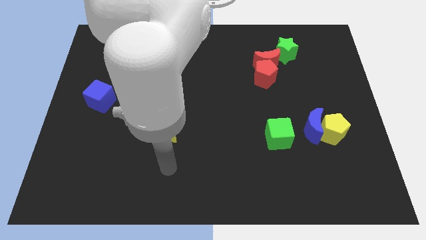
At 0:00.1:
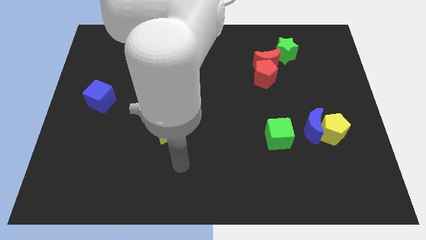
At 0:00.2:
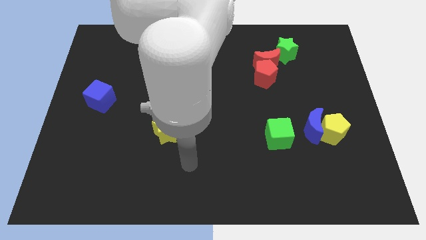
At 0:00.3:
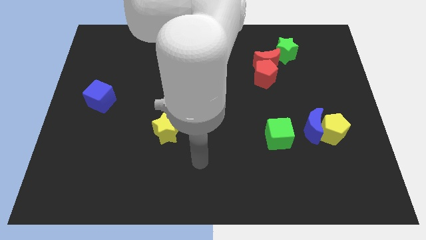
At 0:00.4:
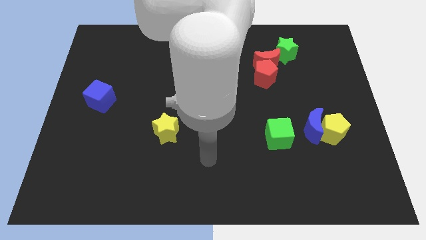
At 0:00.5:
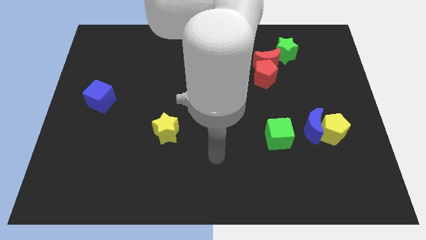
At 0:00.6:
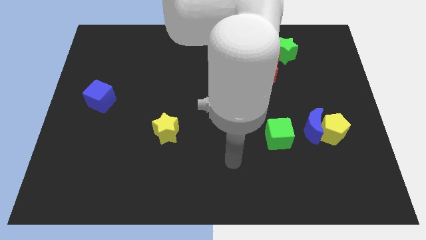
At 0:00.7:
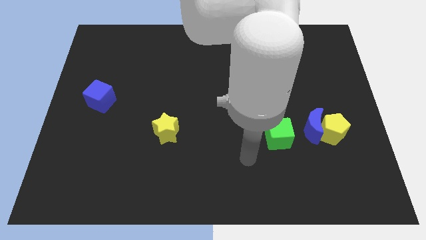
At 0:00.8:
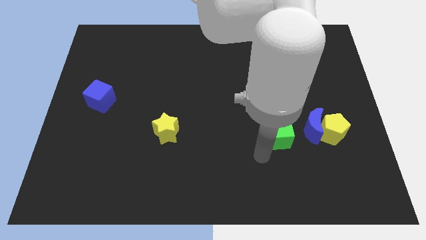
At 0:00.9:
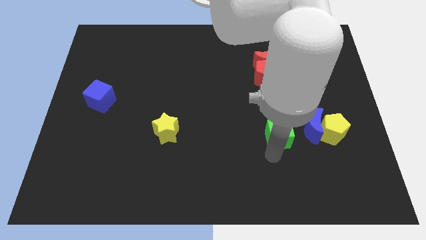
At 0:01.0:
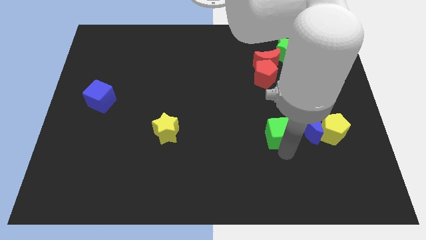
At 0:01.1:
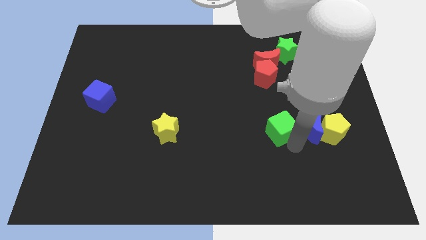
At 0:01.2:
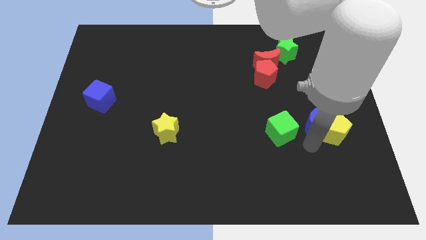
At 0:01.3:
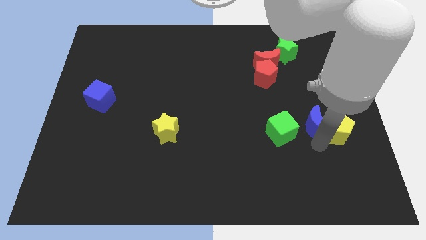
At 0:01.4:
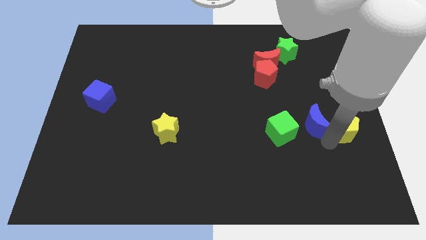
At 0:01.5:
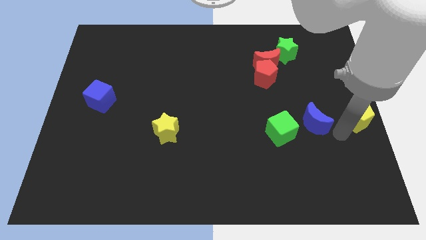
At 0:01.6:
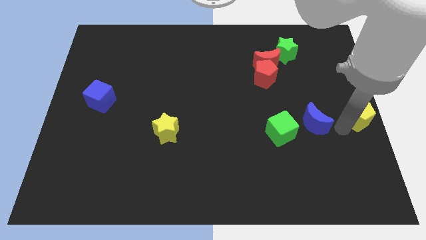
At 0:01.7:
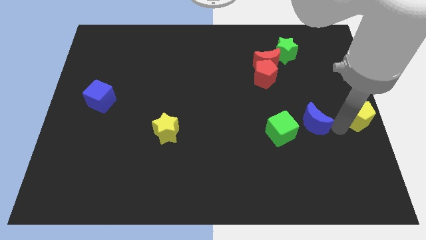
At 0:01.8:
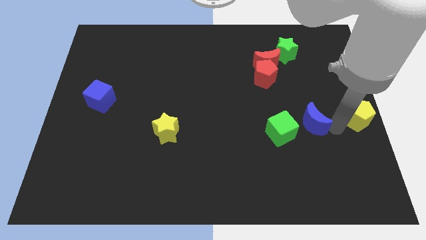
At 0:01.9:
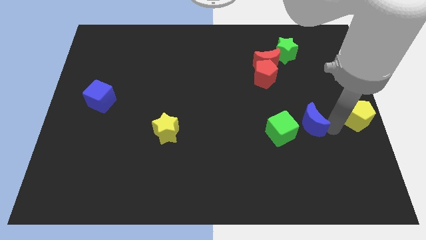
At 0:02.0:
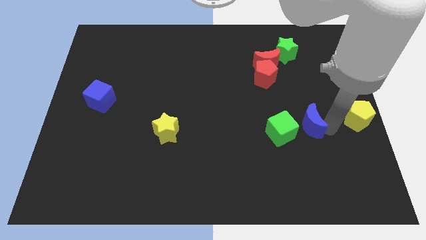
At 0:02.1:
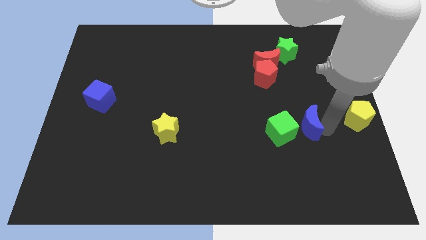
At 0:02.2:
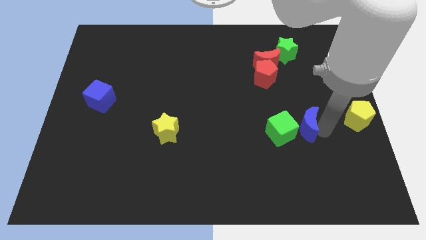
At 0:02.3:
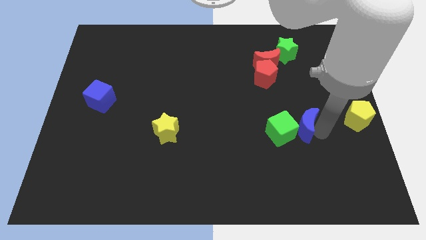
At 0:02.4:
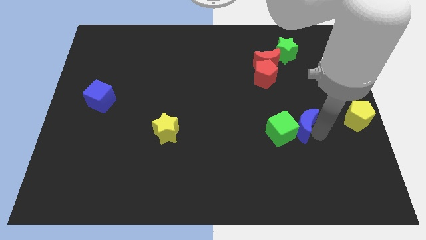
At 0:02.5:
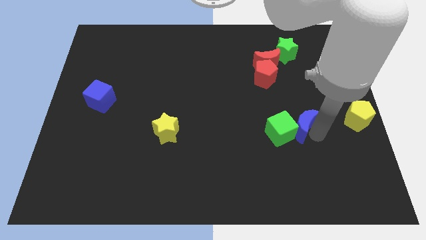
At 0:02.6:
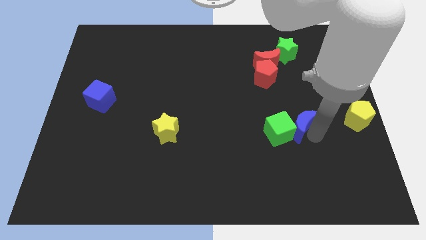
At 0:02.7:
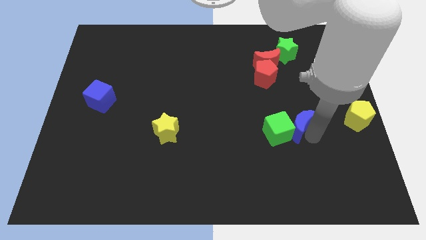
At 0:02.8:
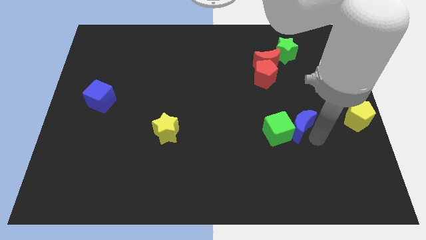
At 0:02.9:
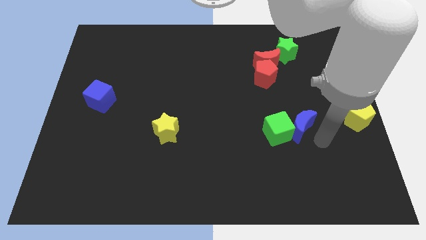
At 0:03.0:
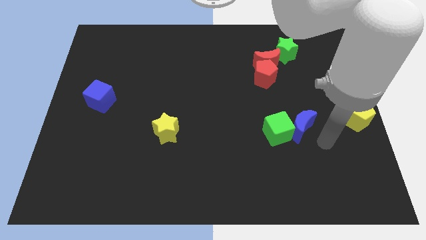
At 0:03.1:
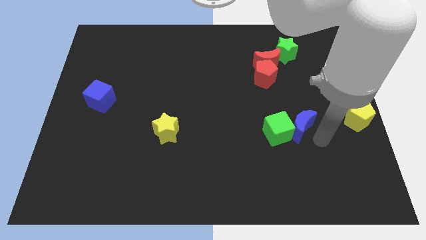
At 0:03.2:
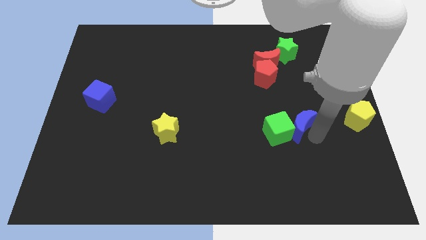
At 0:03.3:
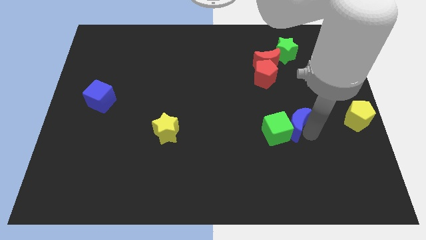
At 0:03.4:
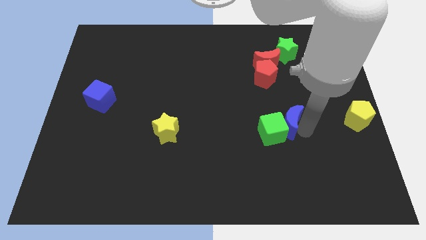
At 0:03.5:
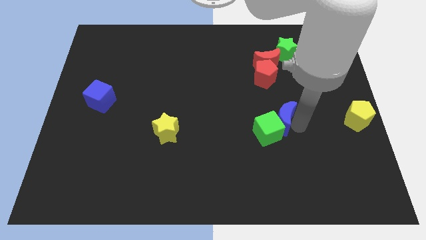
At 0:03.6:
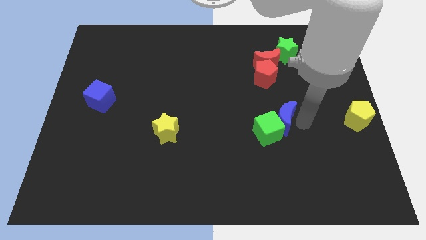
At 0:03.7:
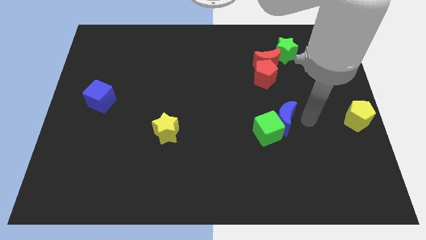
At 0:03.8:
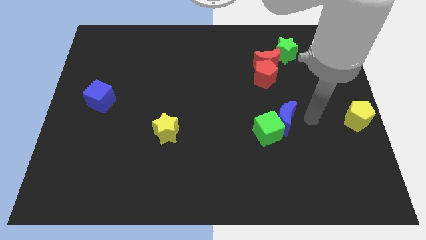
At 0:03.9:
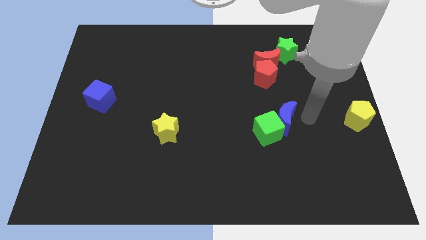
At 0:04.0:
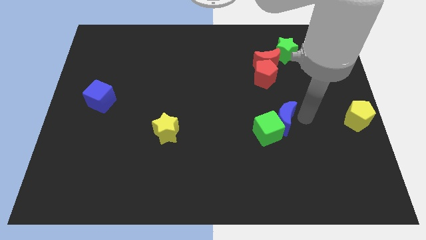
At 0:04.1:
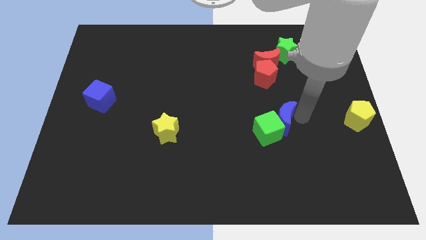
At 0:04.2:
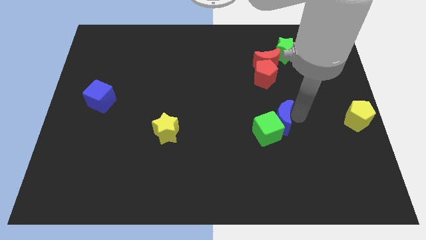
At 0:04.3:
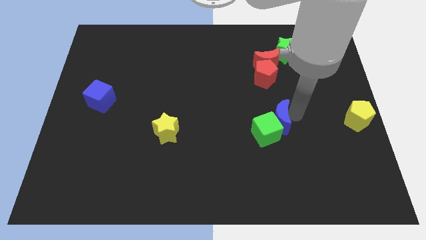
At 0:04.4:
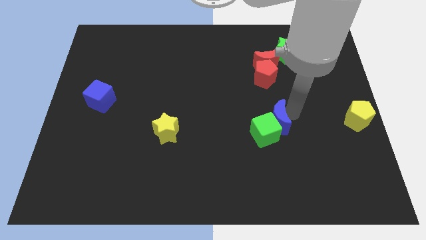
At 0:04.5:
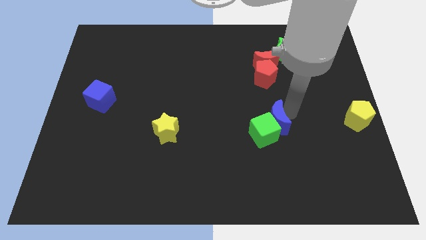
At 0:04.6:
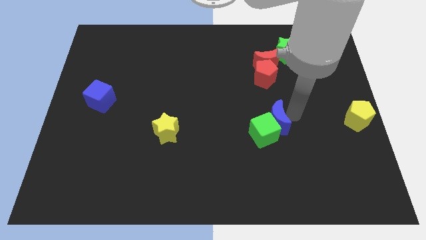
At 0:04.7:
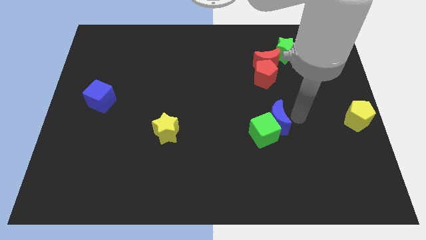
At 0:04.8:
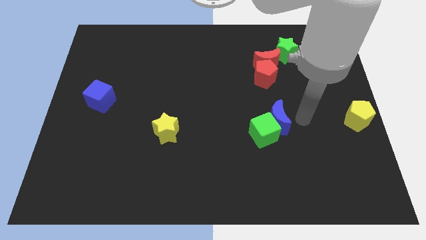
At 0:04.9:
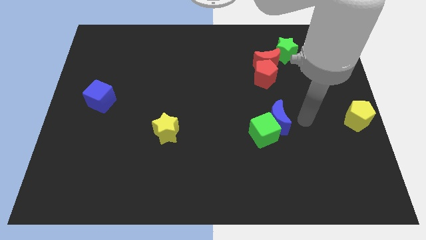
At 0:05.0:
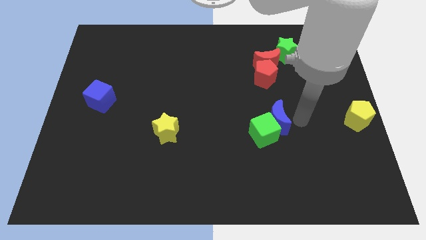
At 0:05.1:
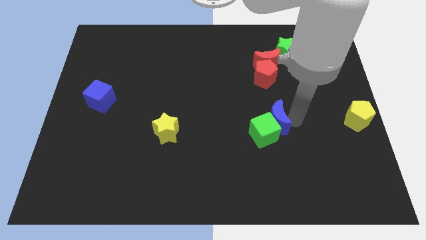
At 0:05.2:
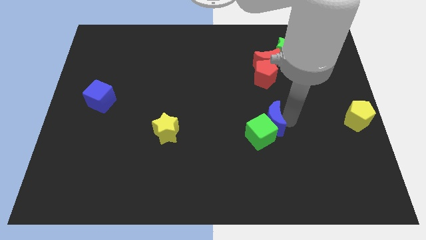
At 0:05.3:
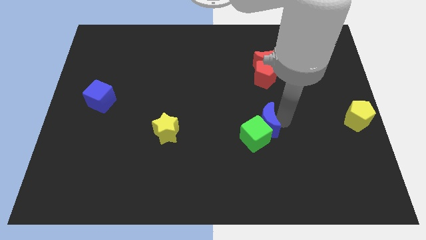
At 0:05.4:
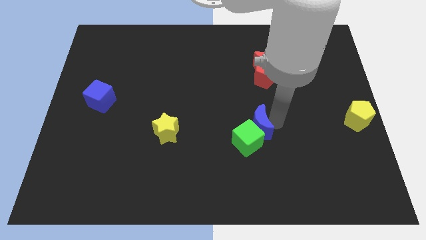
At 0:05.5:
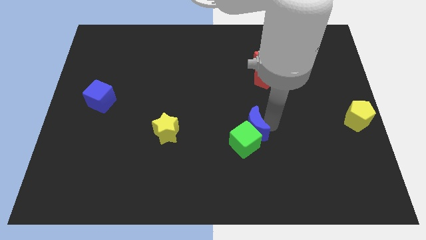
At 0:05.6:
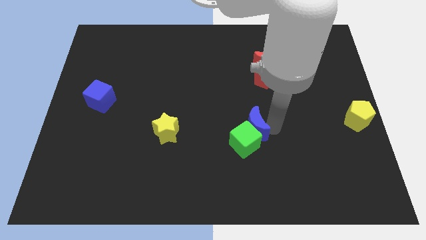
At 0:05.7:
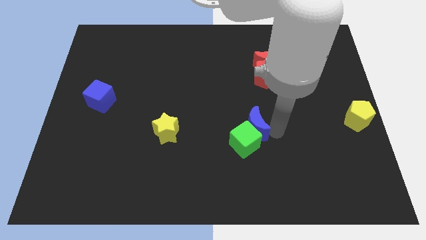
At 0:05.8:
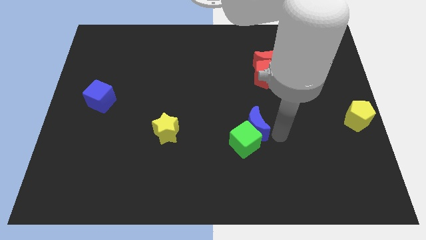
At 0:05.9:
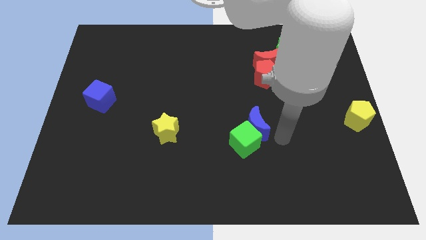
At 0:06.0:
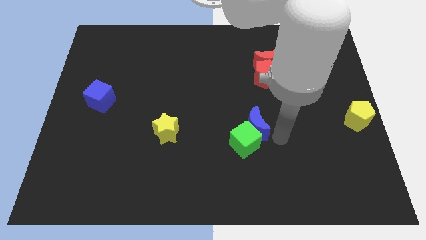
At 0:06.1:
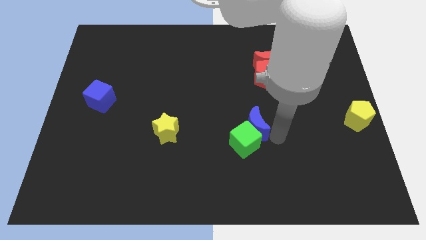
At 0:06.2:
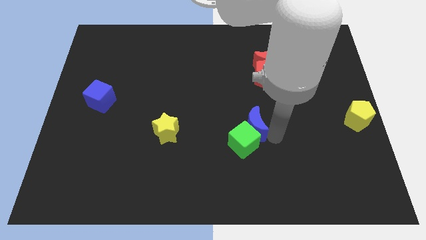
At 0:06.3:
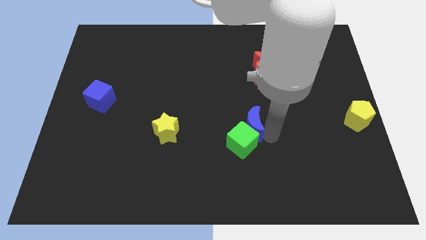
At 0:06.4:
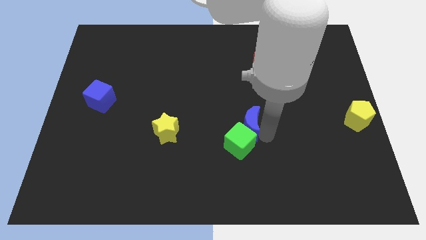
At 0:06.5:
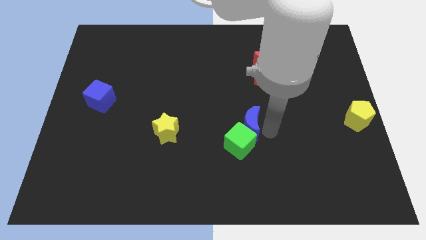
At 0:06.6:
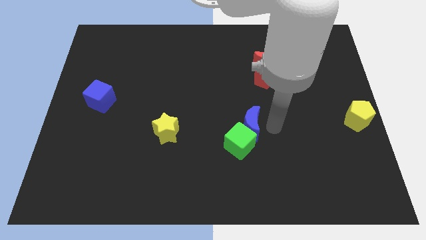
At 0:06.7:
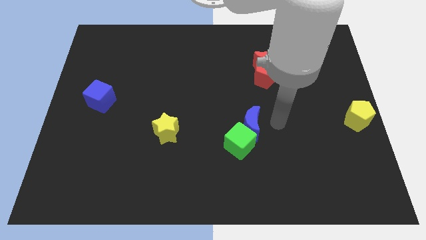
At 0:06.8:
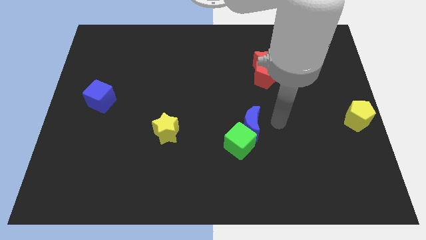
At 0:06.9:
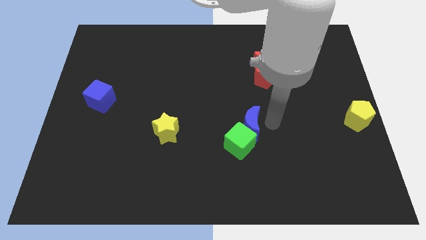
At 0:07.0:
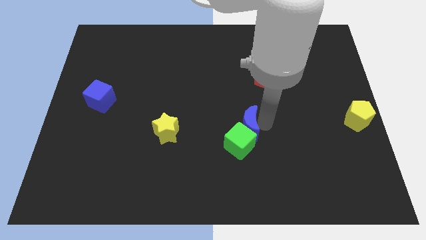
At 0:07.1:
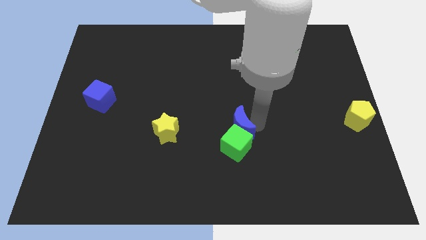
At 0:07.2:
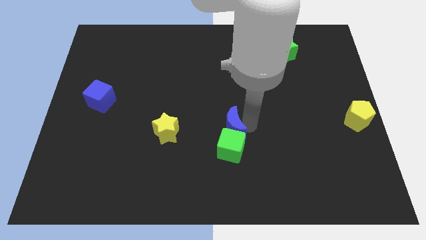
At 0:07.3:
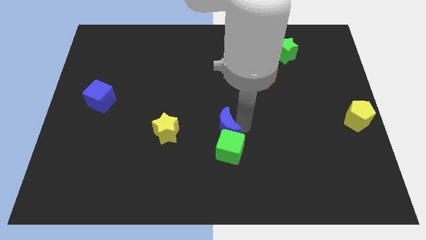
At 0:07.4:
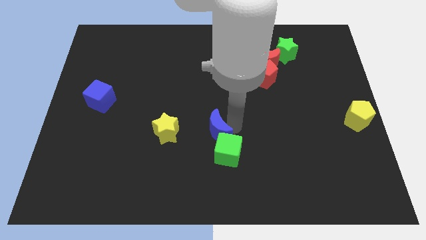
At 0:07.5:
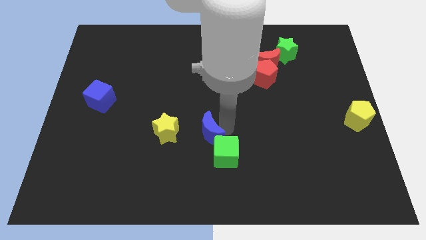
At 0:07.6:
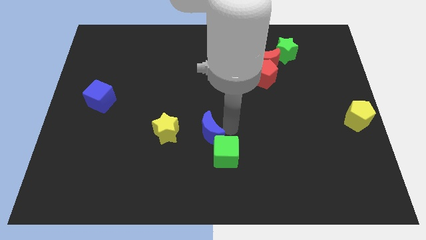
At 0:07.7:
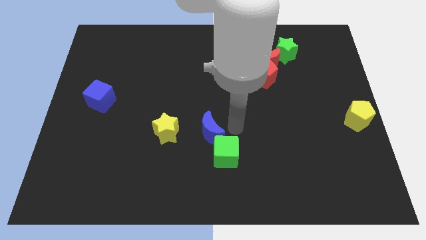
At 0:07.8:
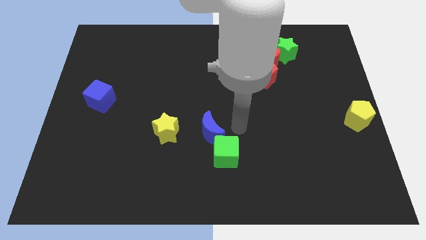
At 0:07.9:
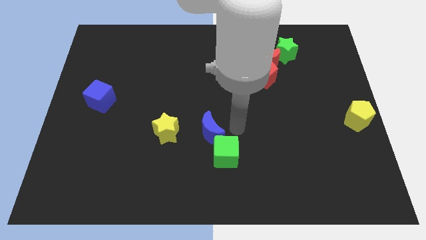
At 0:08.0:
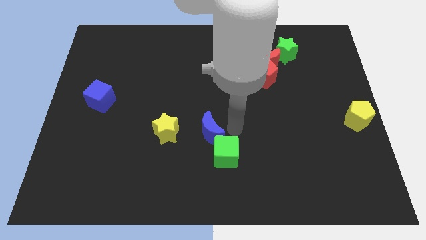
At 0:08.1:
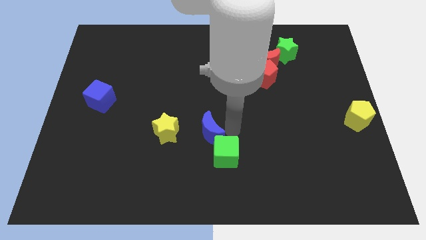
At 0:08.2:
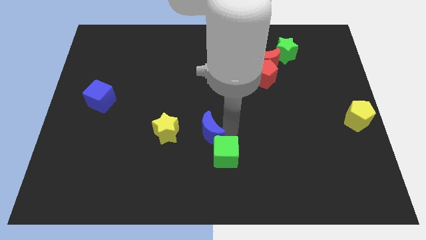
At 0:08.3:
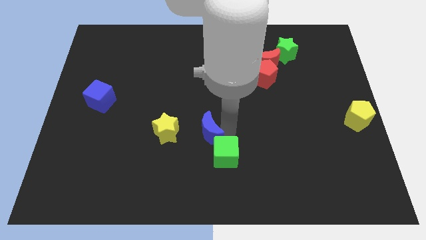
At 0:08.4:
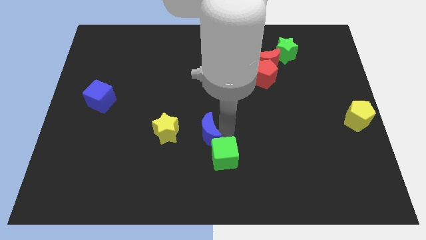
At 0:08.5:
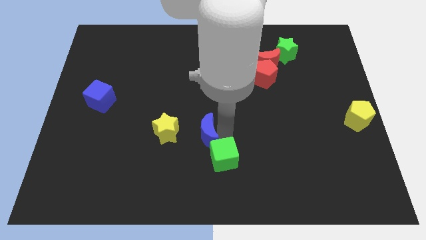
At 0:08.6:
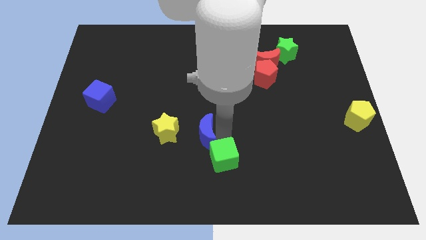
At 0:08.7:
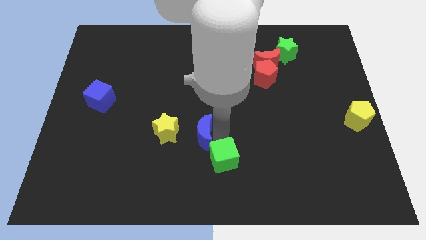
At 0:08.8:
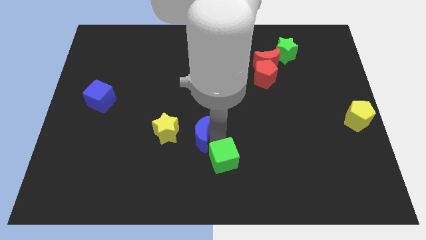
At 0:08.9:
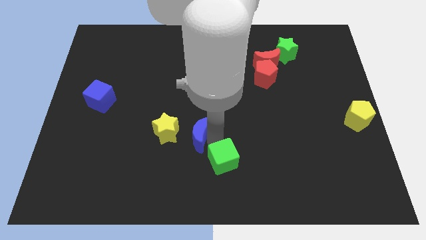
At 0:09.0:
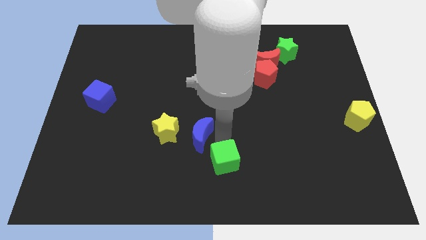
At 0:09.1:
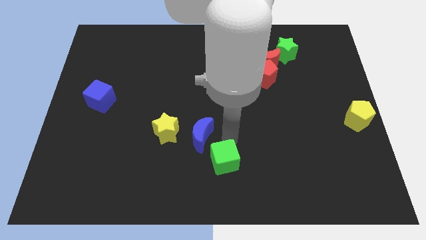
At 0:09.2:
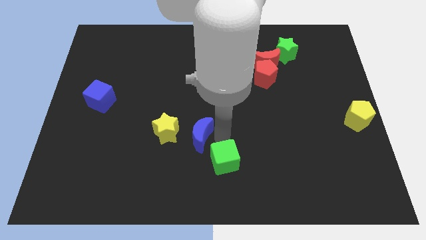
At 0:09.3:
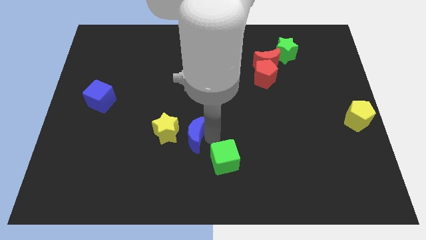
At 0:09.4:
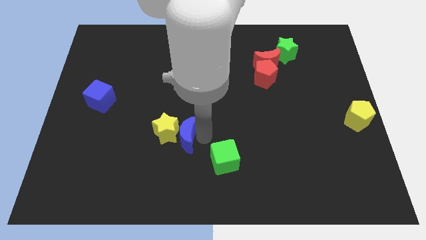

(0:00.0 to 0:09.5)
slide the blue moon close to the yellow star
